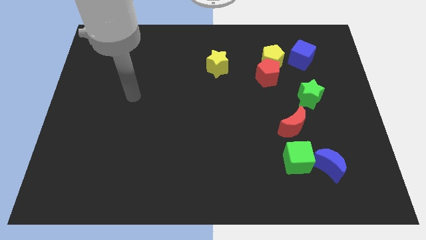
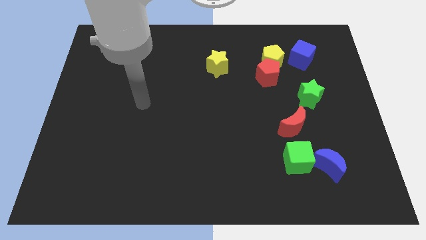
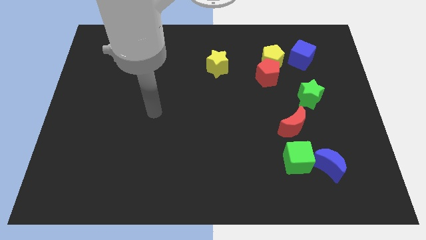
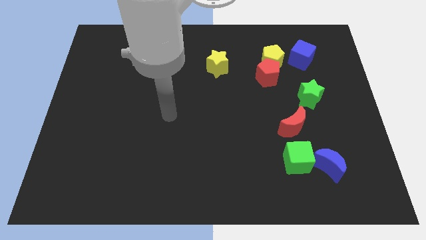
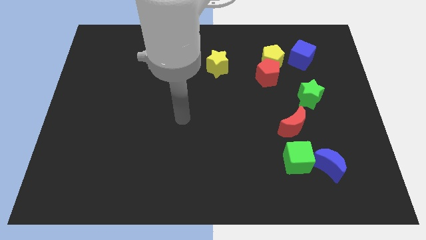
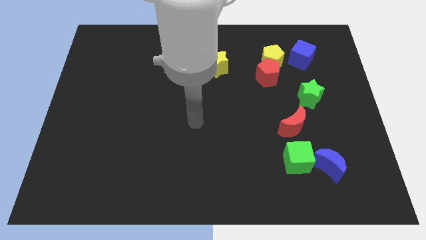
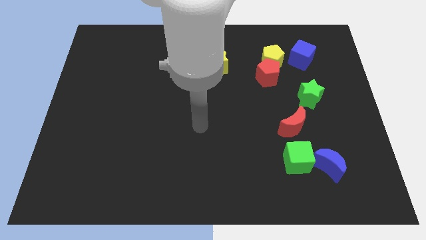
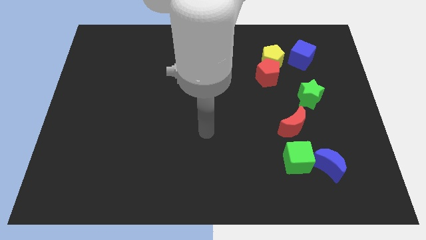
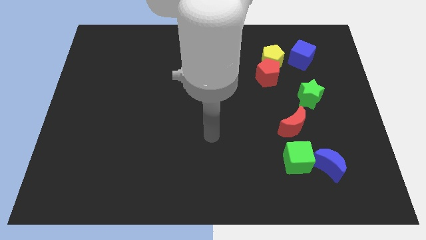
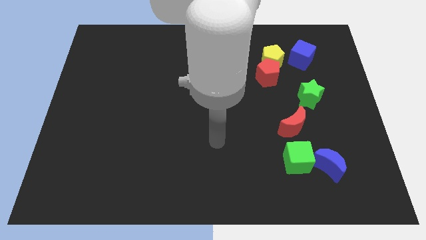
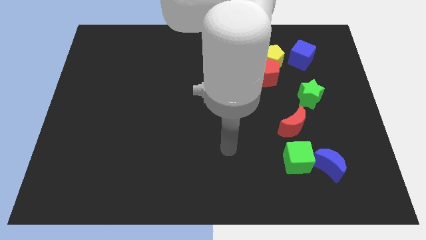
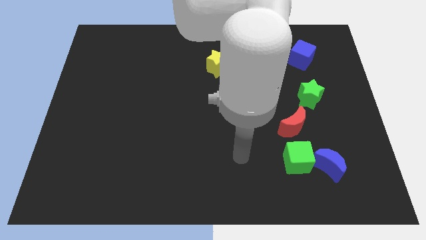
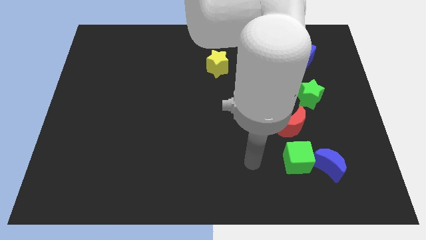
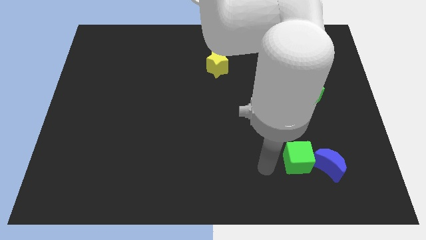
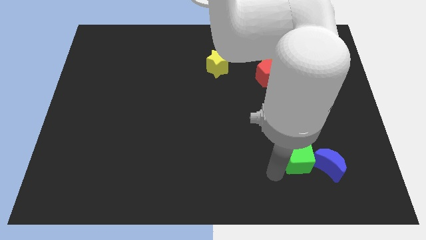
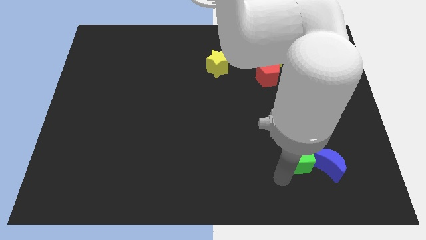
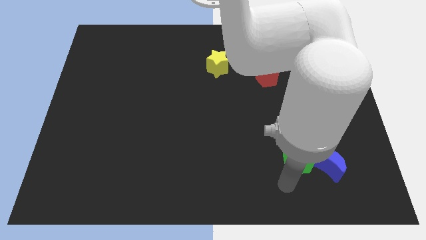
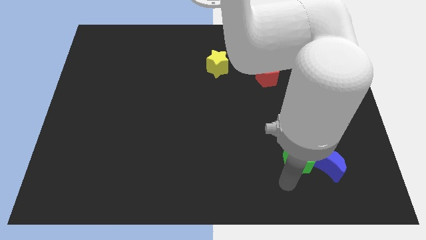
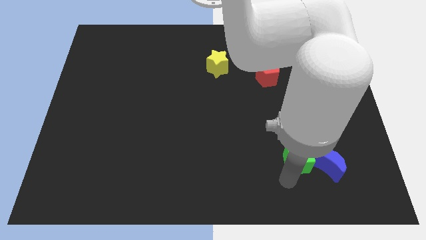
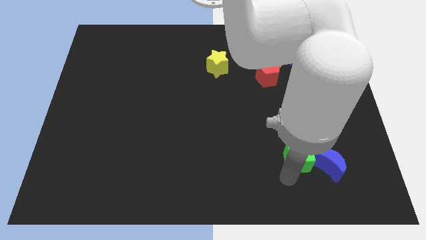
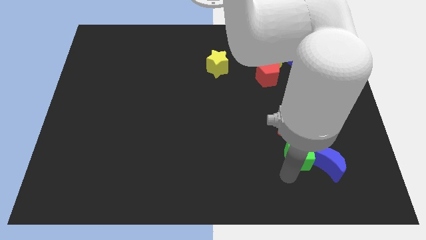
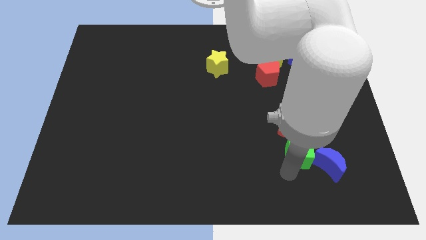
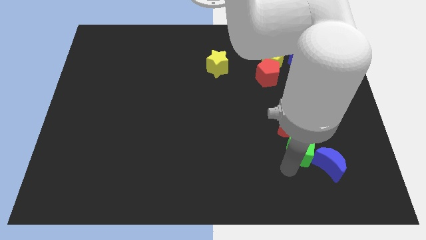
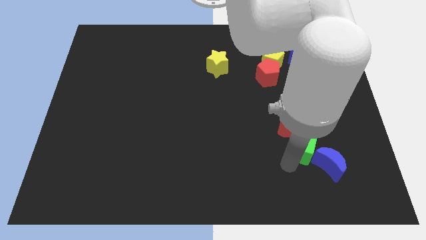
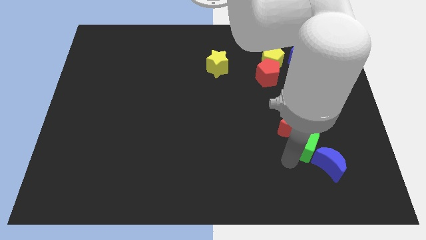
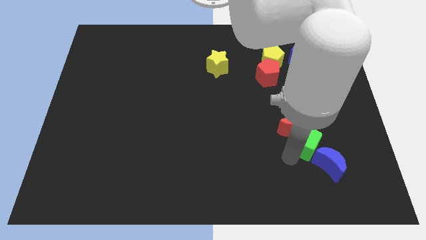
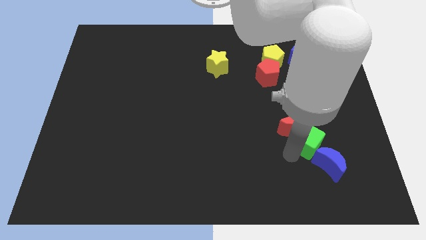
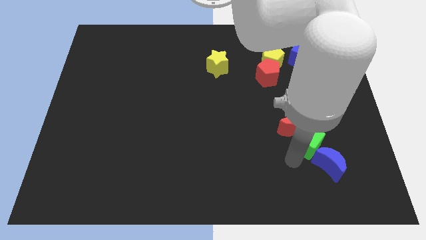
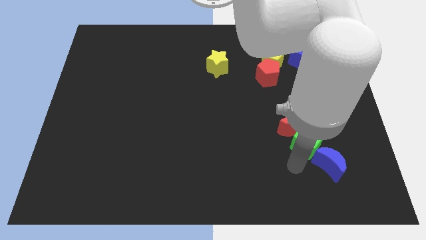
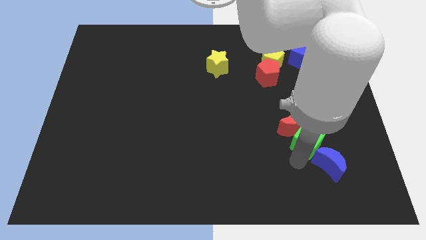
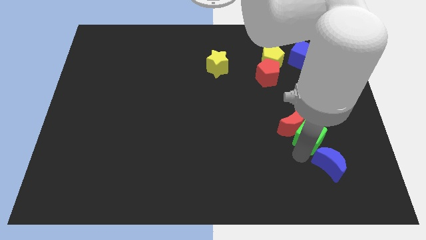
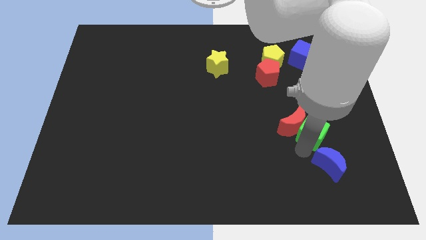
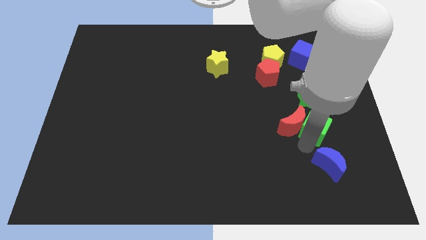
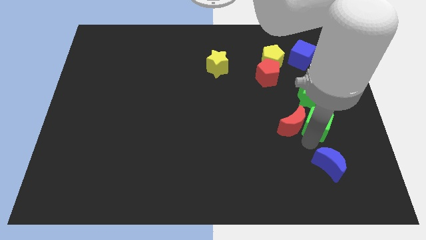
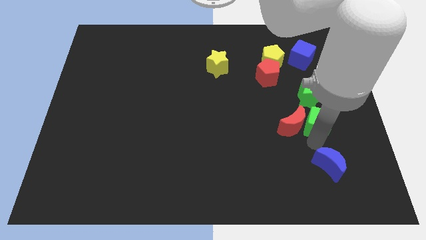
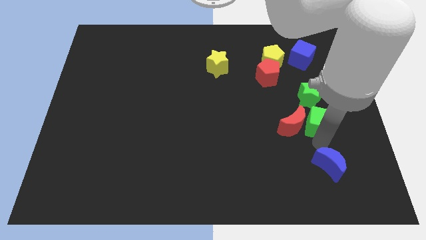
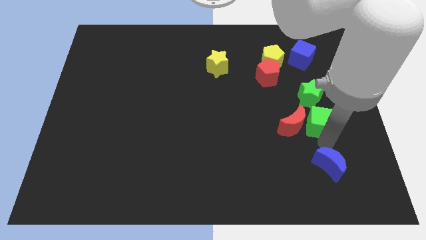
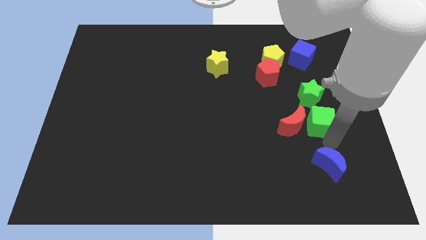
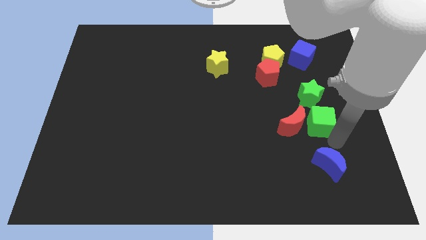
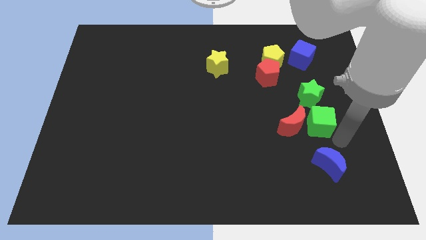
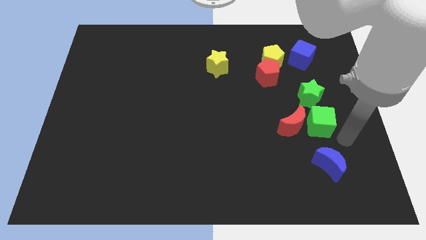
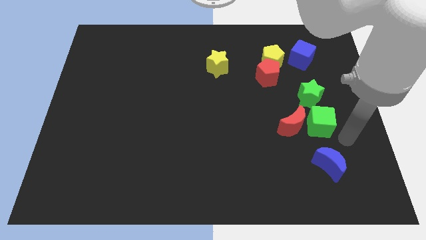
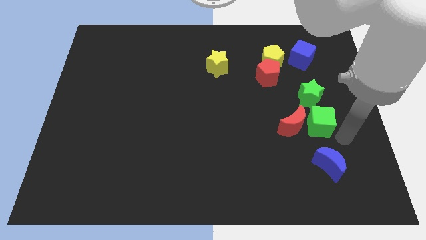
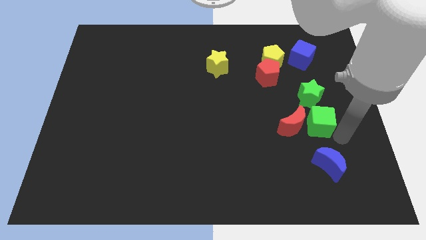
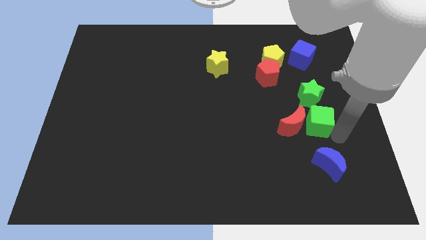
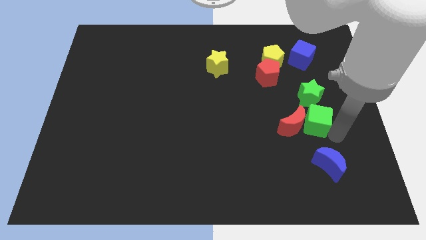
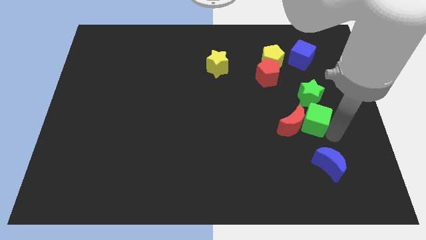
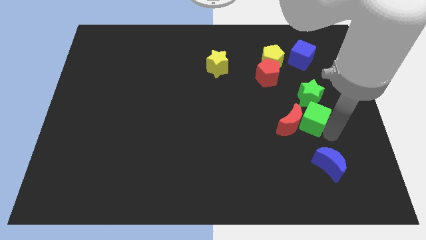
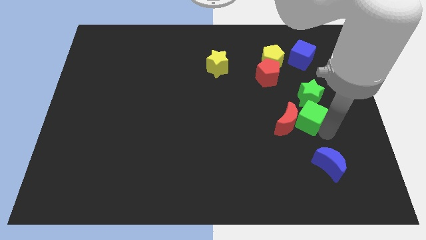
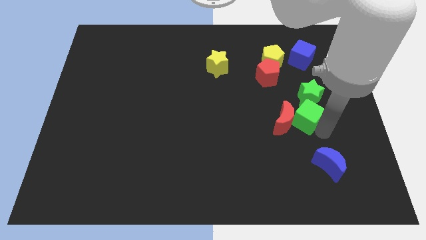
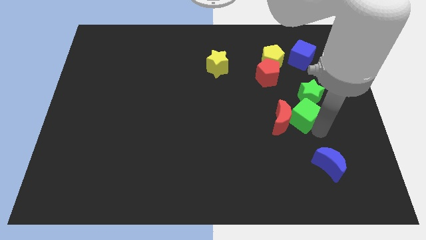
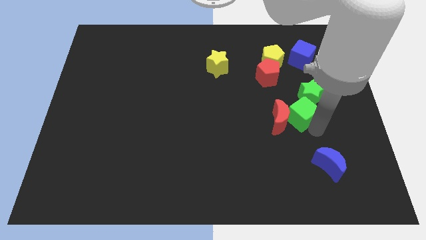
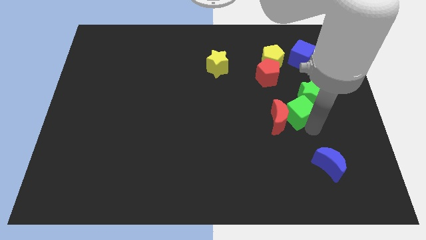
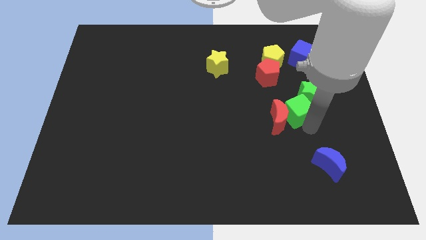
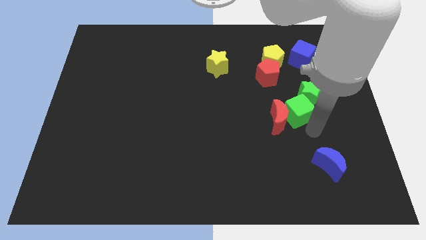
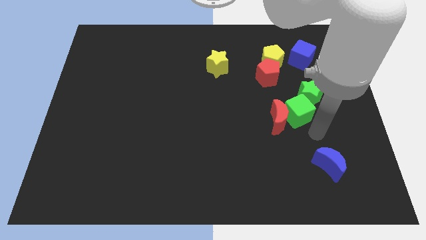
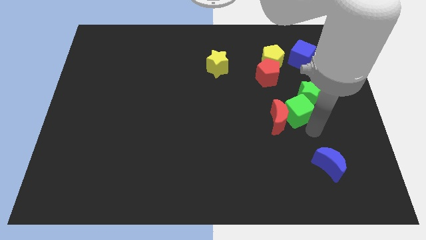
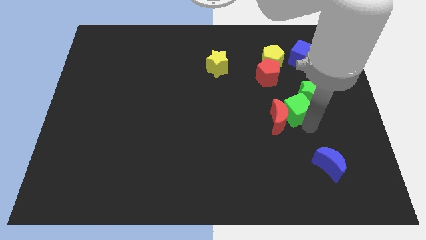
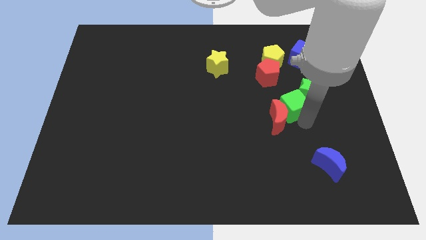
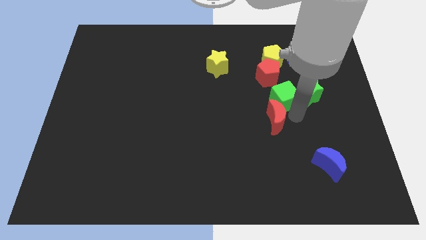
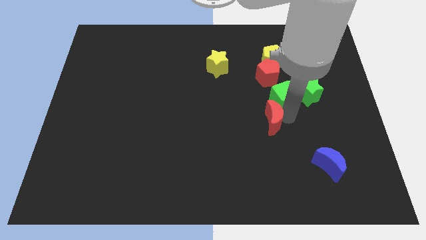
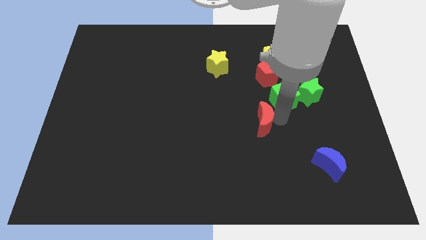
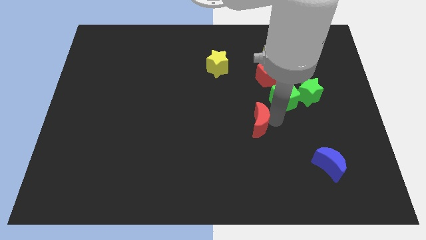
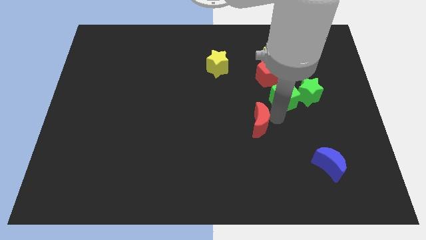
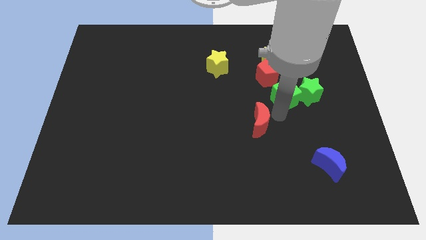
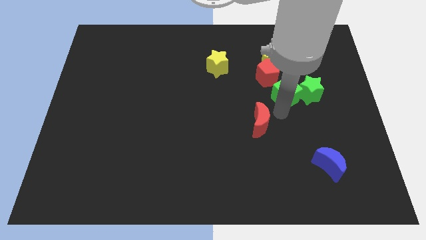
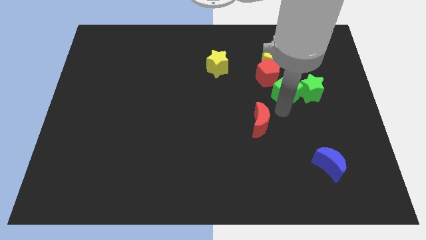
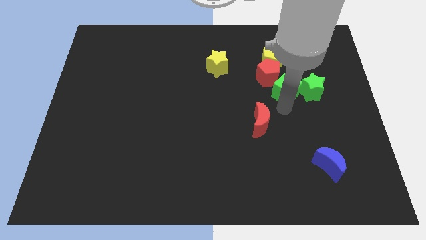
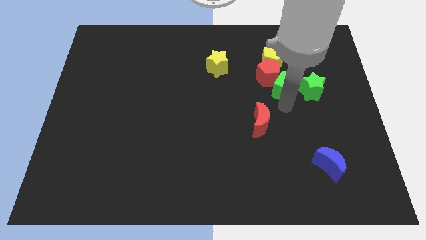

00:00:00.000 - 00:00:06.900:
slide the green cube diagonally down and to the right of the yellow pentagon
